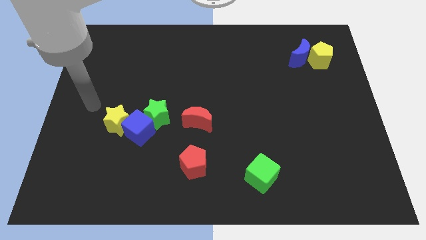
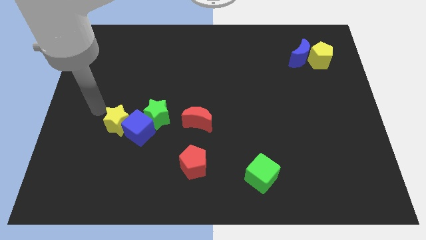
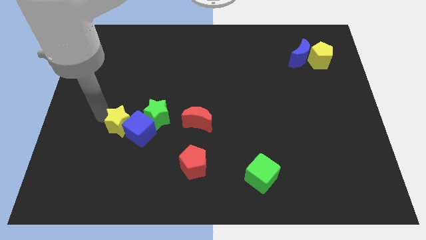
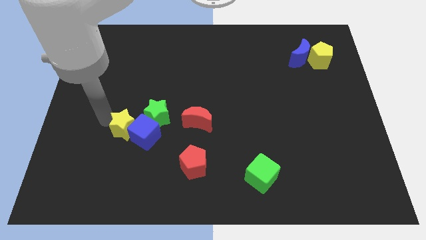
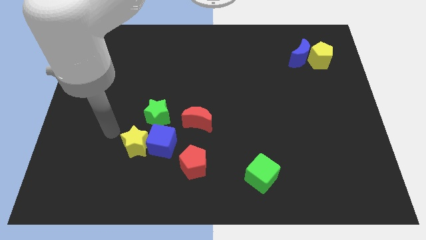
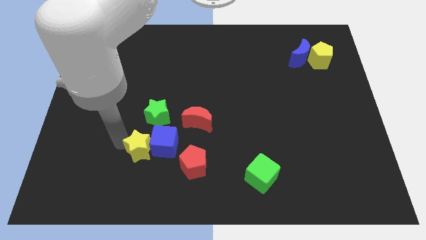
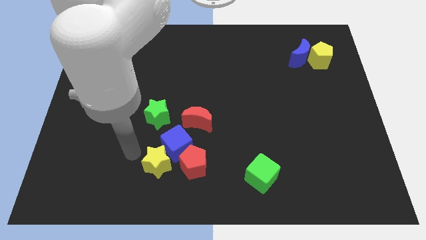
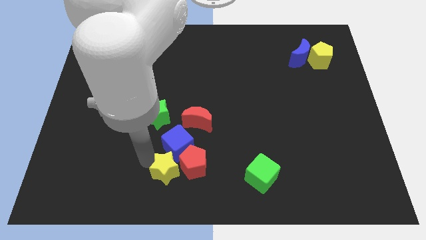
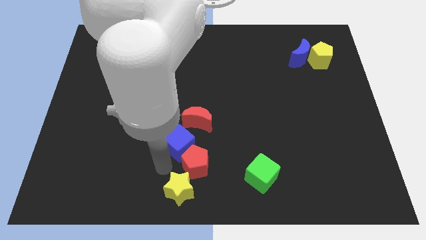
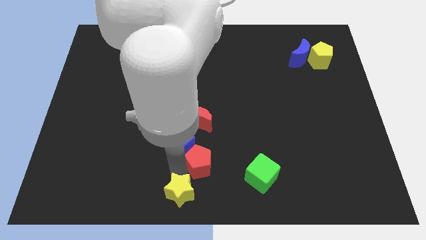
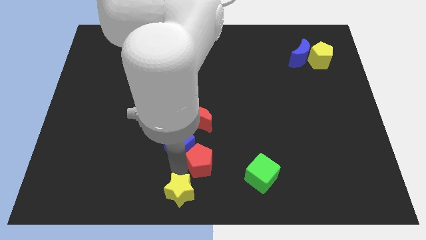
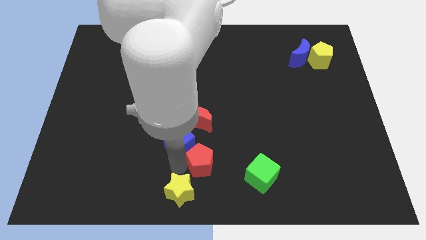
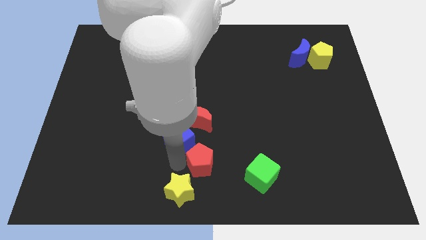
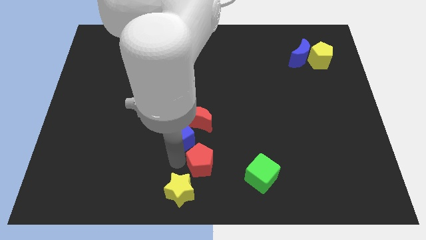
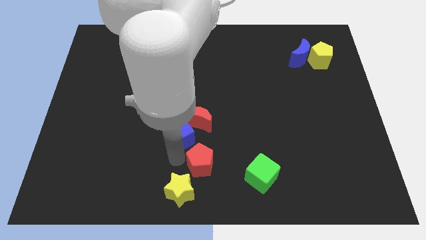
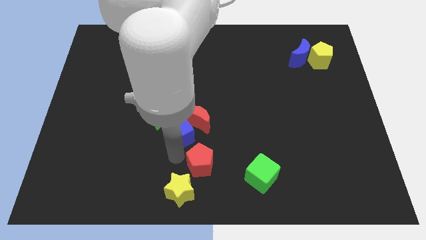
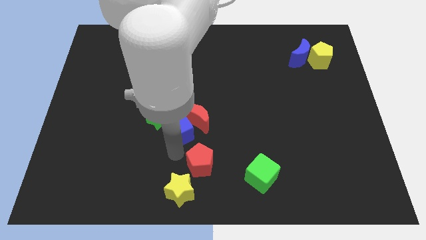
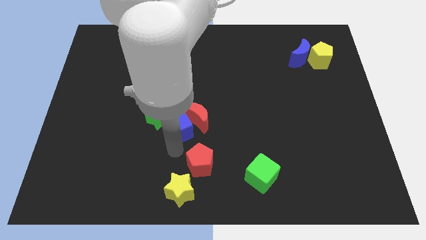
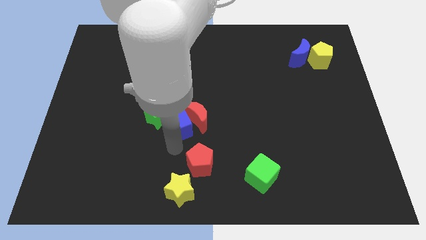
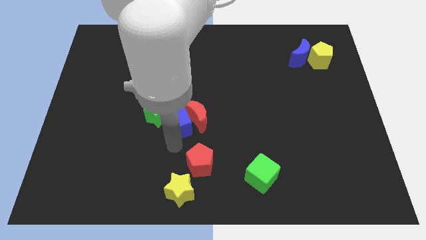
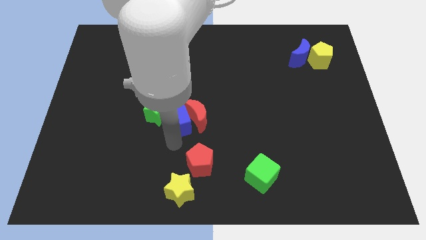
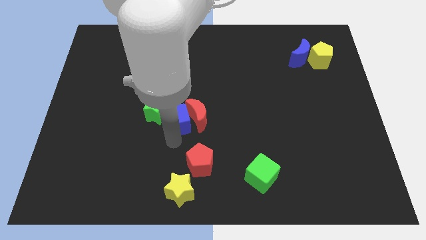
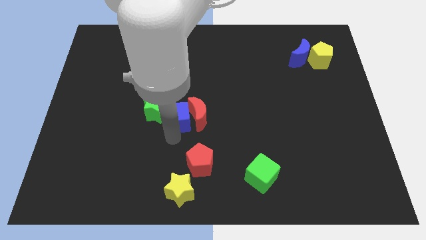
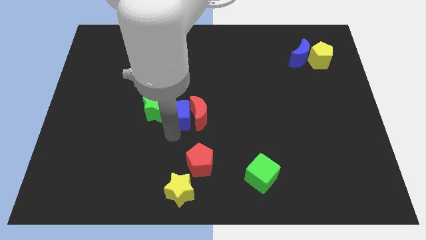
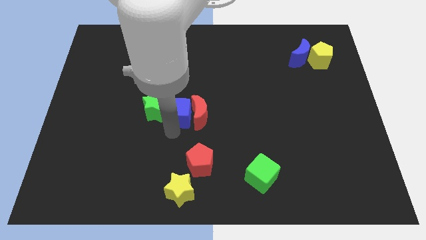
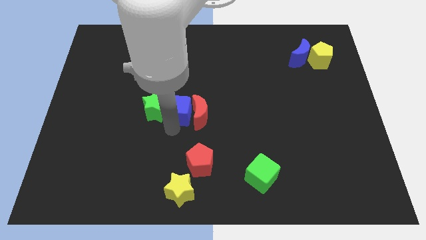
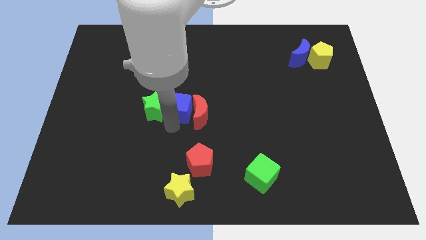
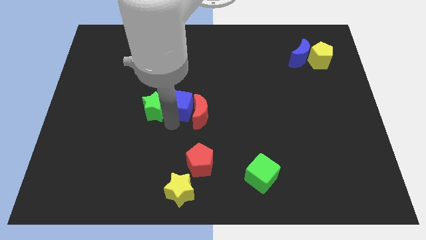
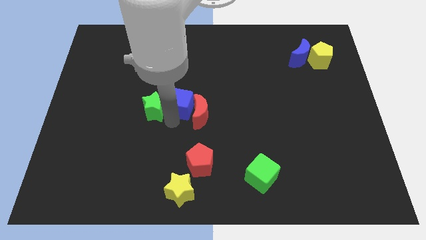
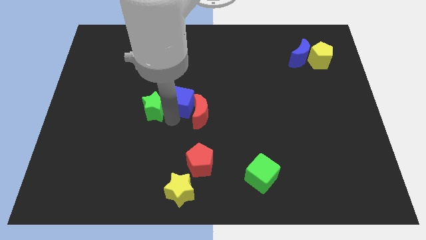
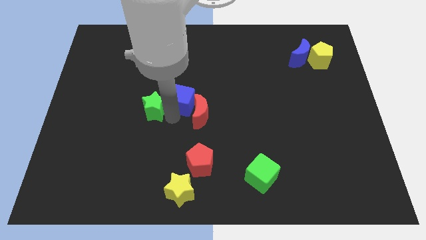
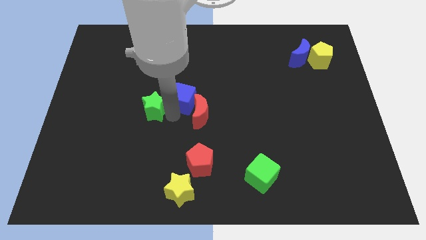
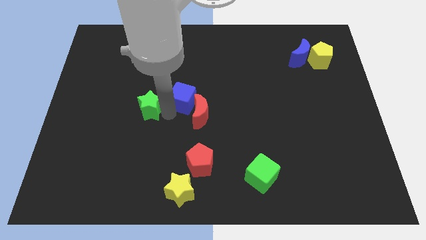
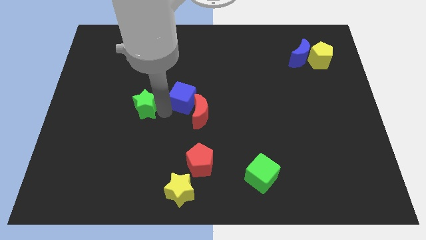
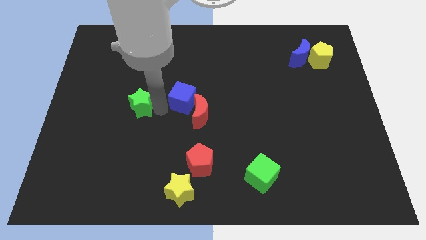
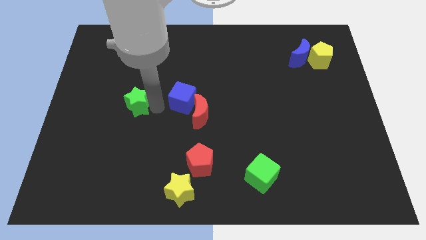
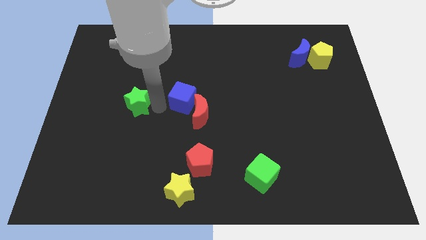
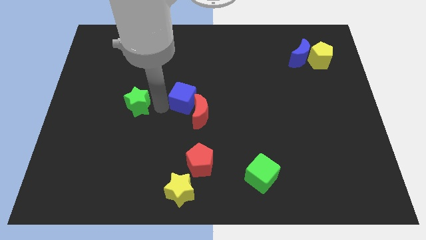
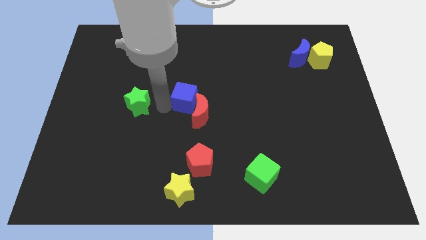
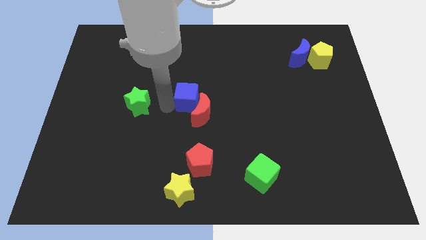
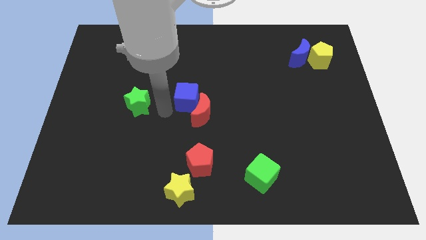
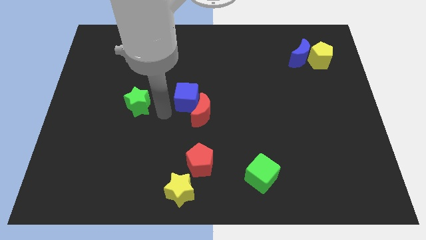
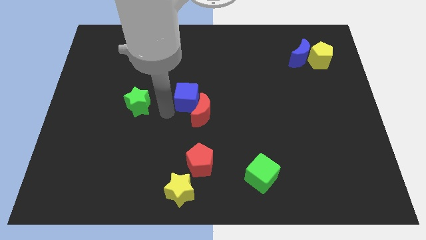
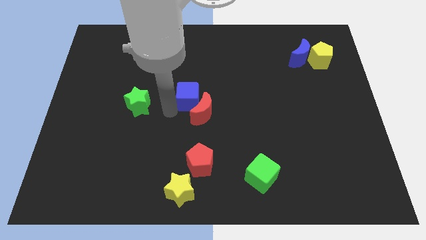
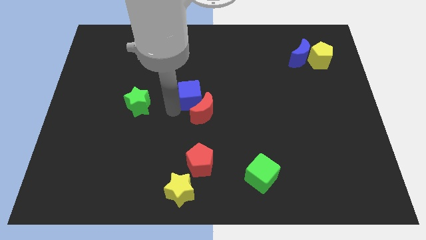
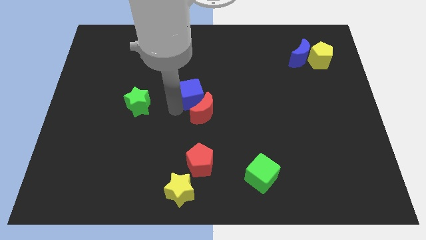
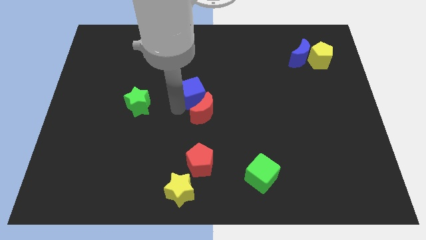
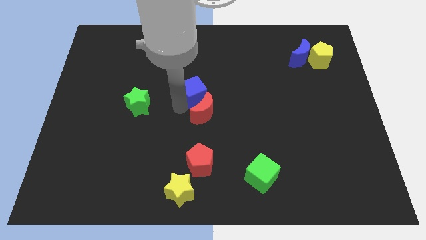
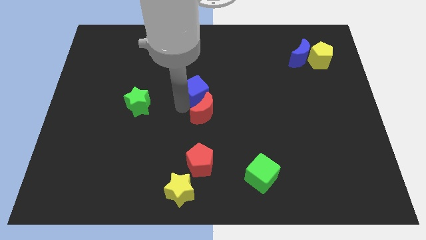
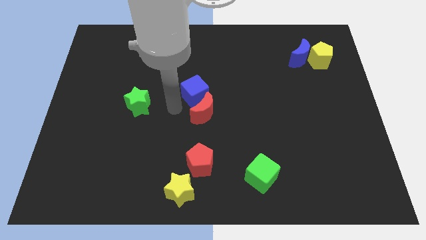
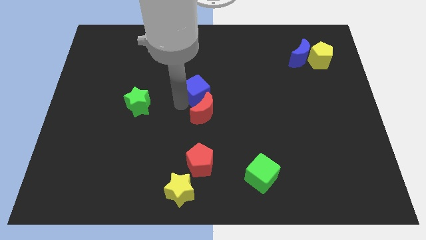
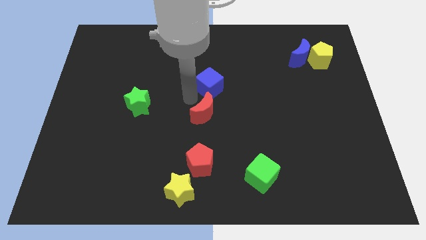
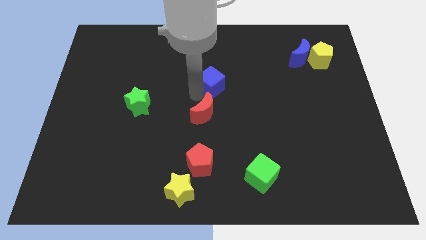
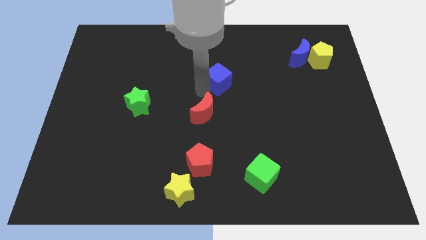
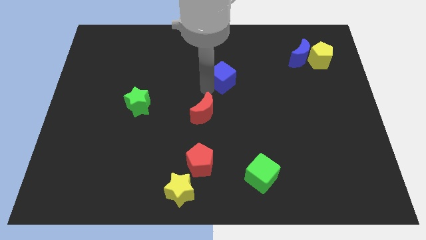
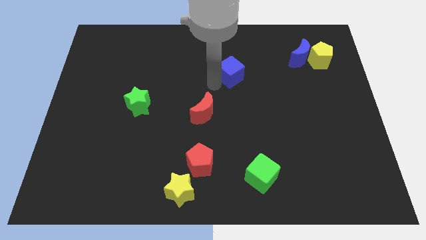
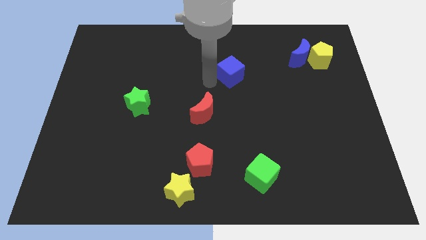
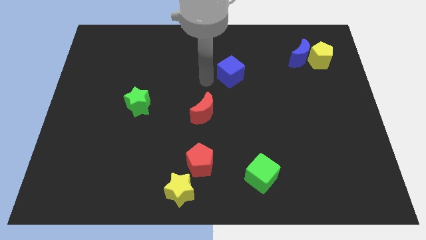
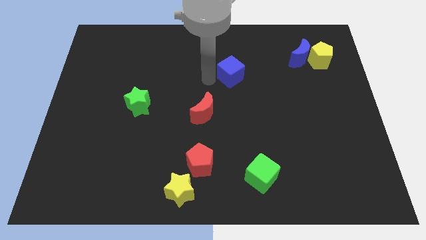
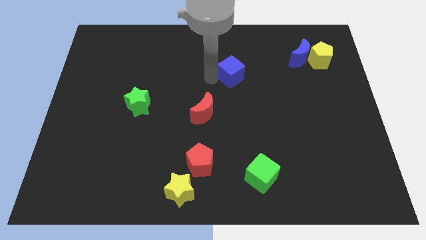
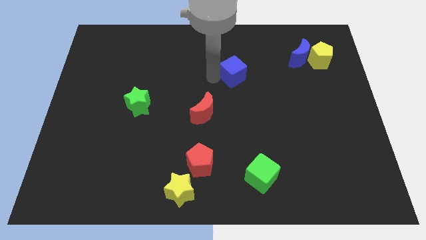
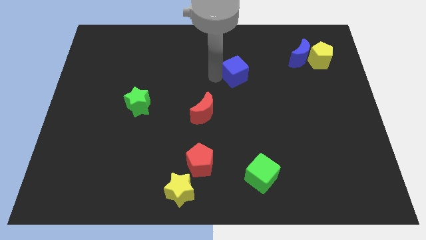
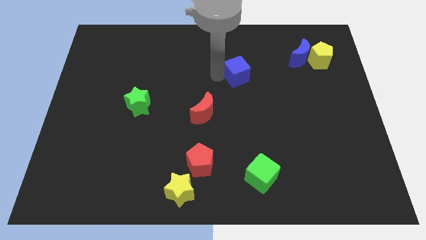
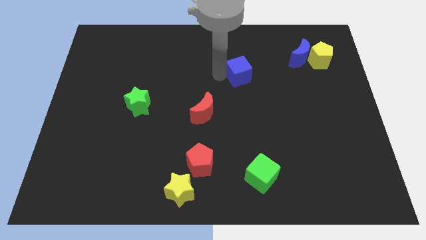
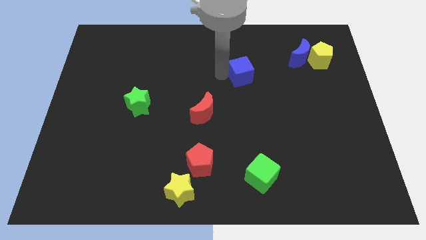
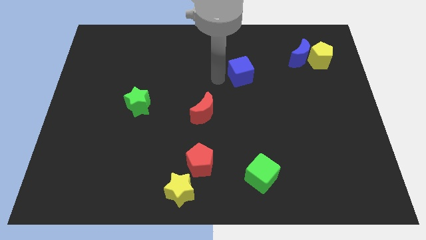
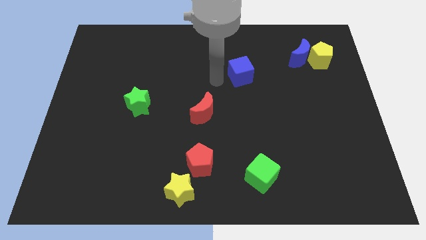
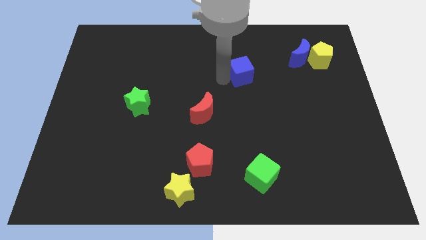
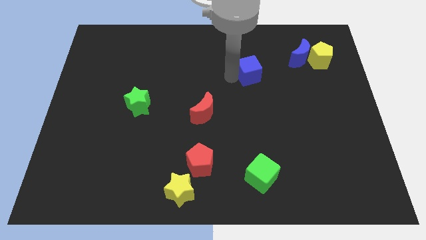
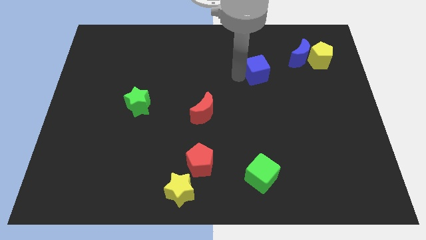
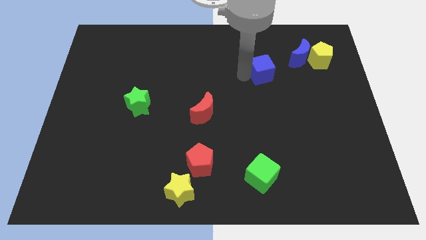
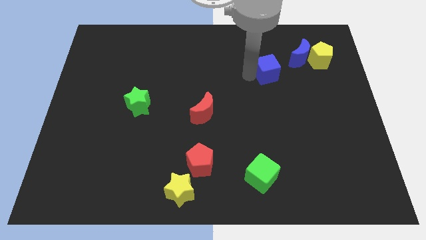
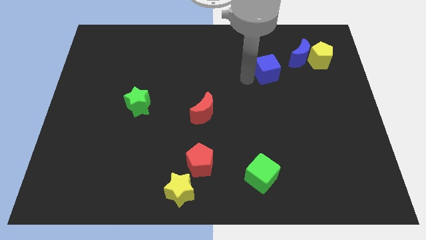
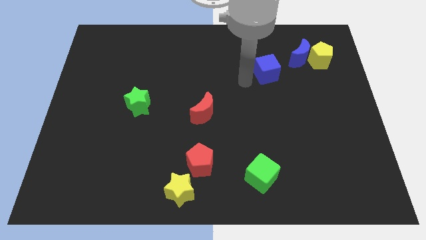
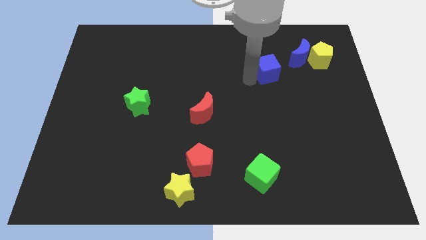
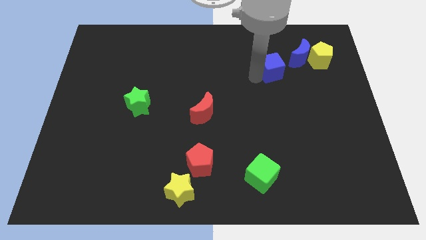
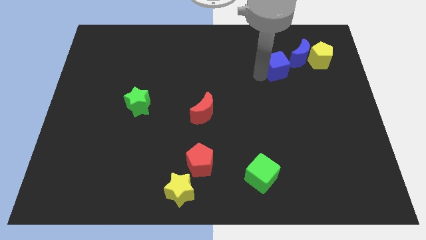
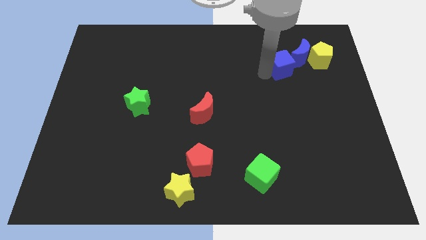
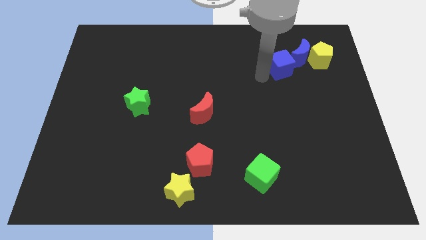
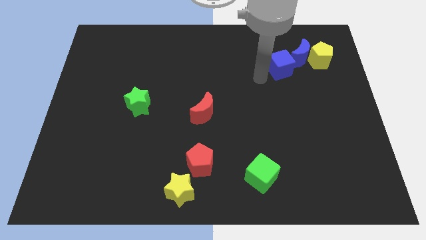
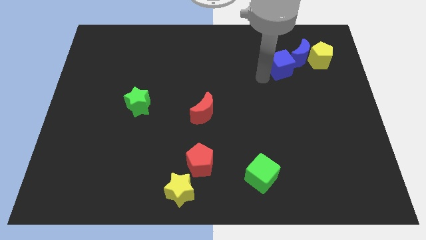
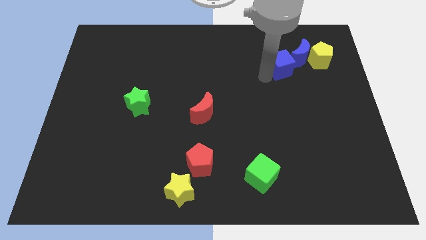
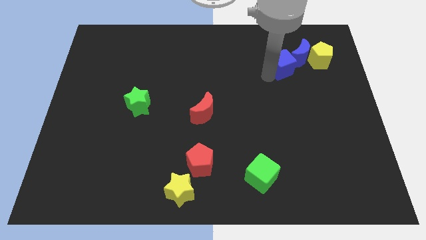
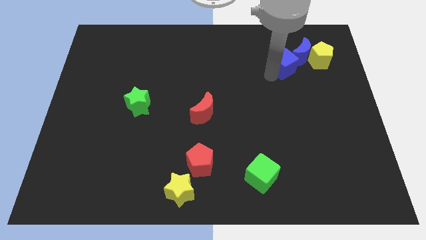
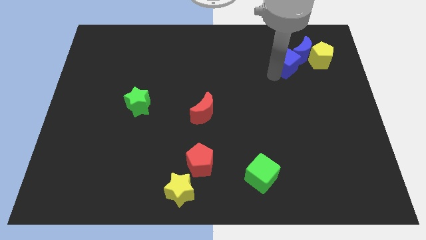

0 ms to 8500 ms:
move the blue cube close to the blue moon
